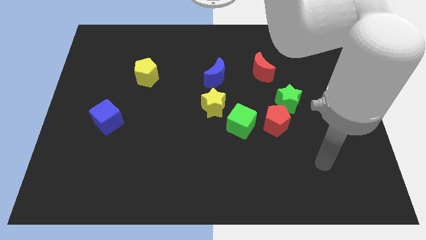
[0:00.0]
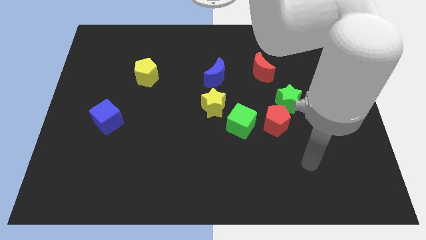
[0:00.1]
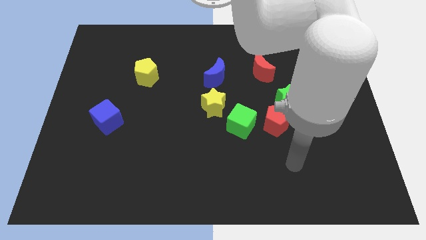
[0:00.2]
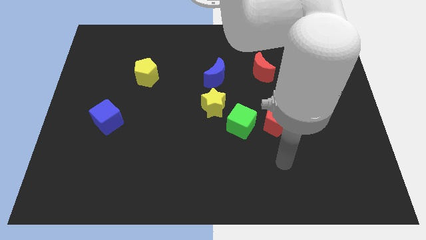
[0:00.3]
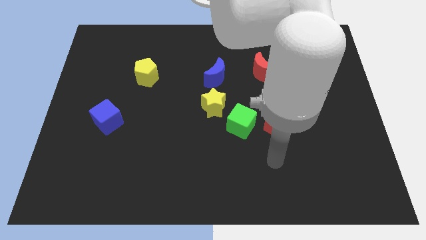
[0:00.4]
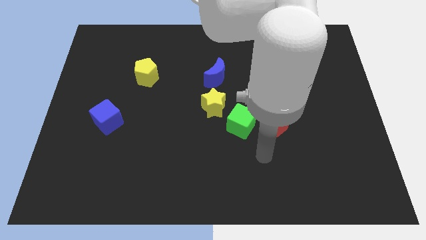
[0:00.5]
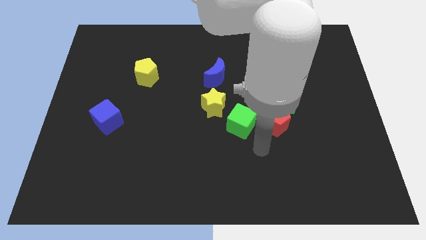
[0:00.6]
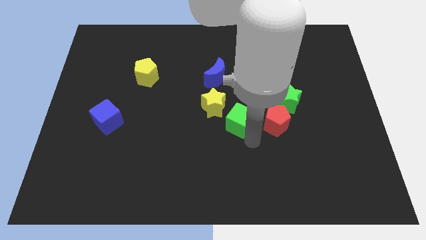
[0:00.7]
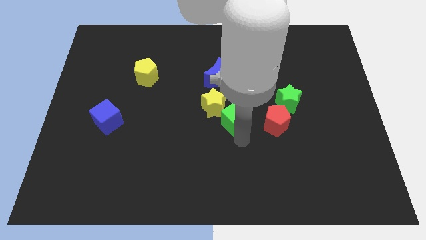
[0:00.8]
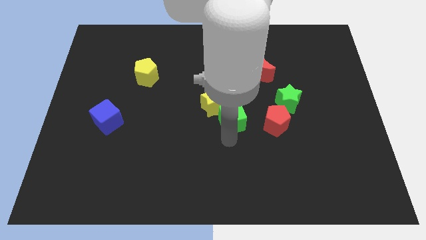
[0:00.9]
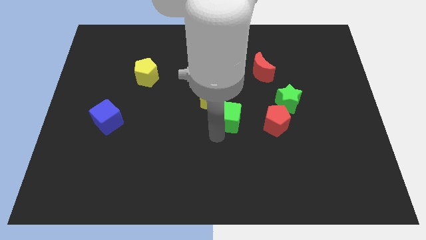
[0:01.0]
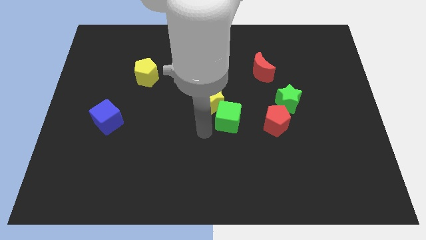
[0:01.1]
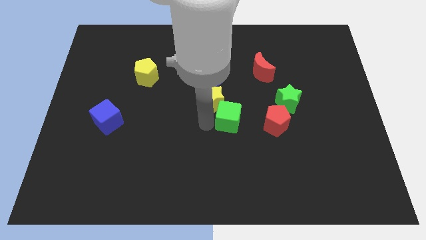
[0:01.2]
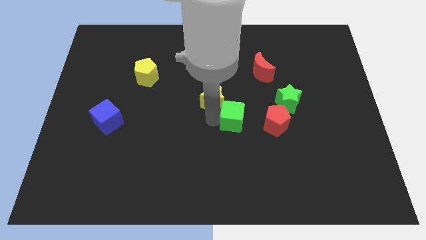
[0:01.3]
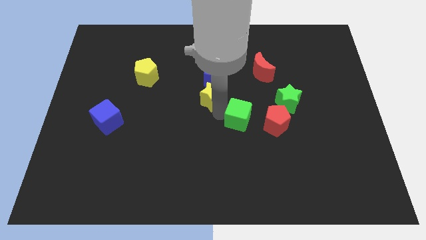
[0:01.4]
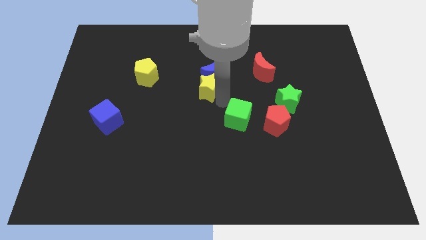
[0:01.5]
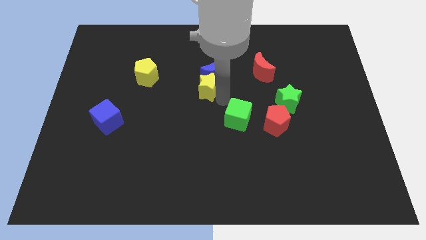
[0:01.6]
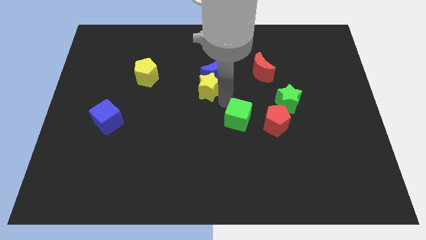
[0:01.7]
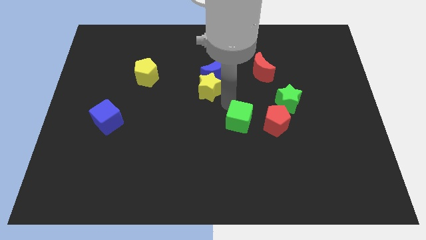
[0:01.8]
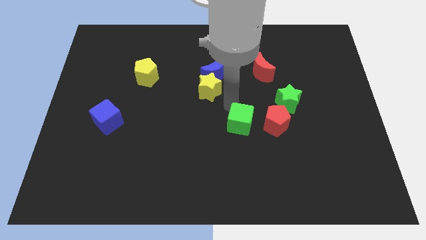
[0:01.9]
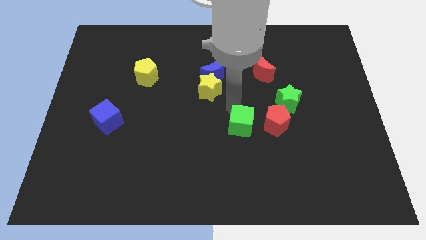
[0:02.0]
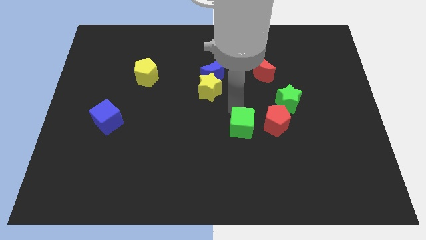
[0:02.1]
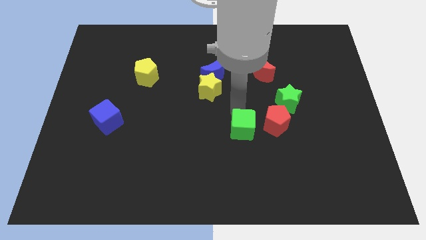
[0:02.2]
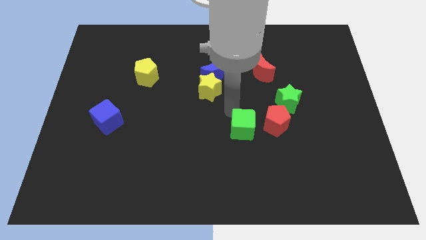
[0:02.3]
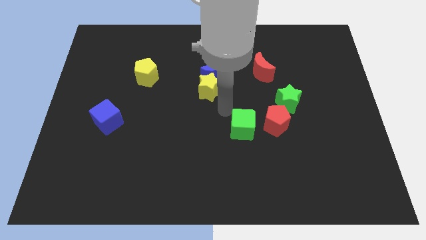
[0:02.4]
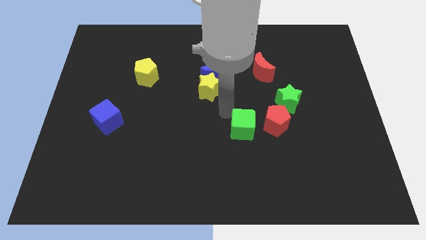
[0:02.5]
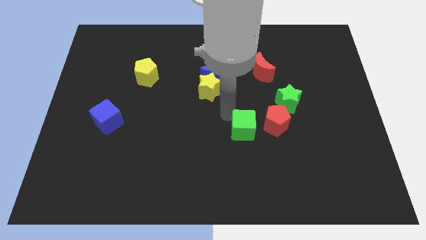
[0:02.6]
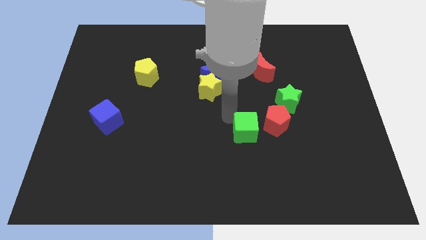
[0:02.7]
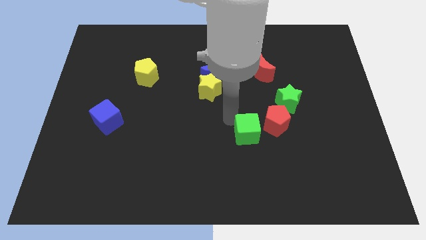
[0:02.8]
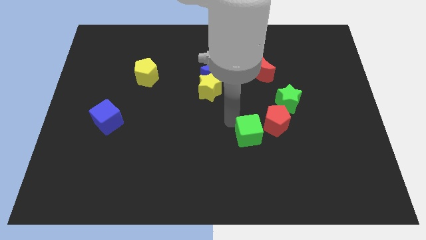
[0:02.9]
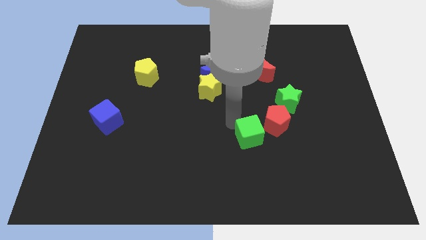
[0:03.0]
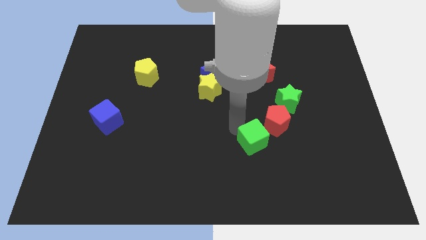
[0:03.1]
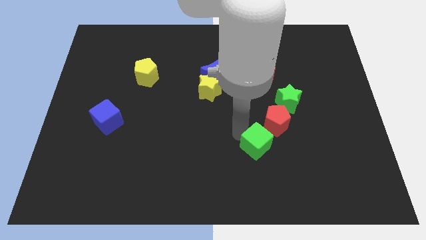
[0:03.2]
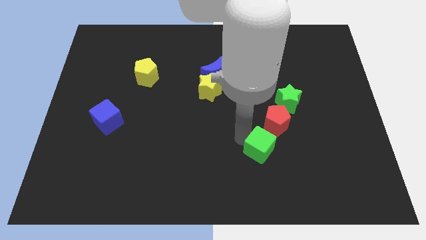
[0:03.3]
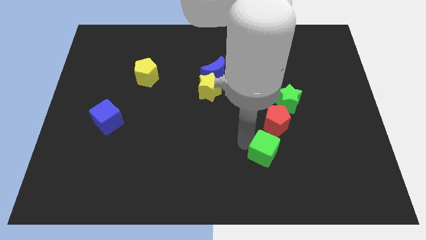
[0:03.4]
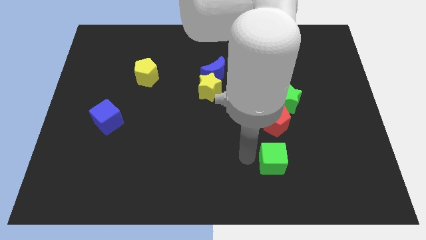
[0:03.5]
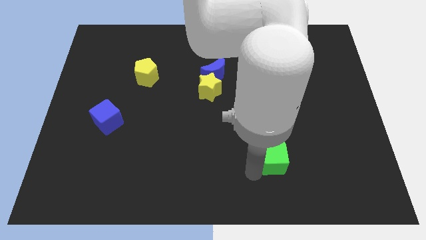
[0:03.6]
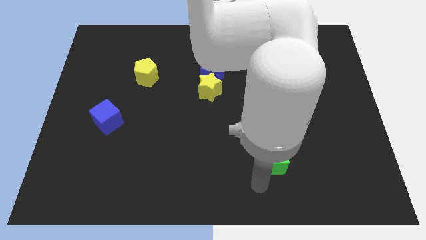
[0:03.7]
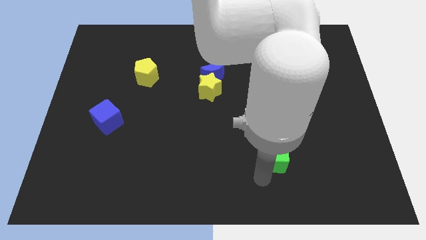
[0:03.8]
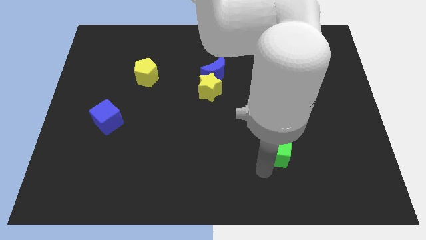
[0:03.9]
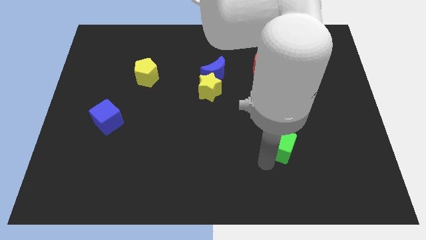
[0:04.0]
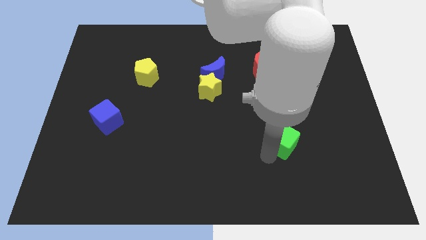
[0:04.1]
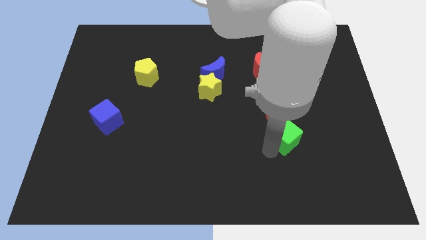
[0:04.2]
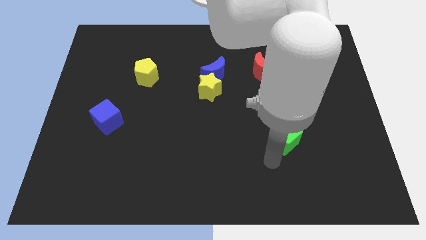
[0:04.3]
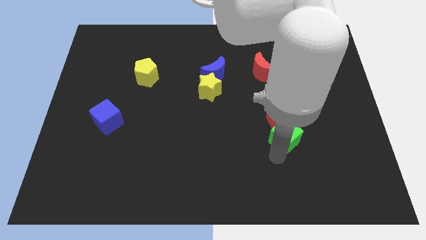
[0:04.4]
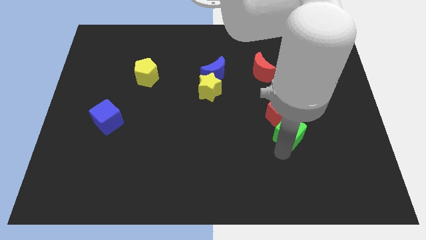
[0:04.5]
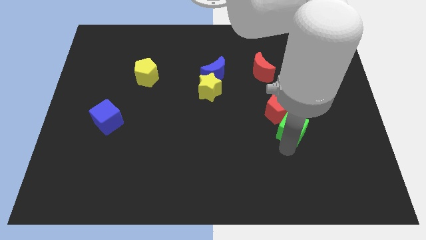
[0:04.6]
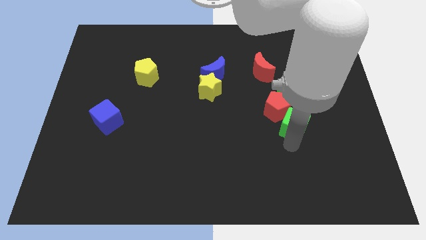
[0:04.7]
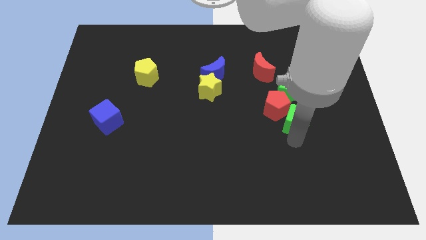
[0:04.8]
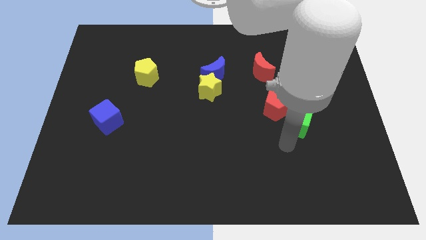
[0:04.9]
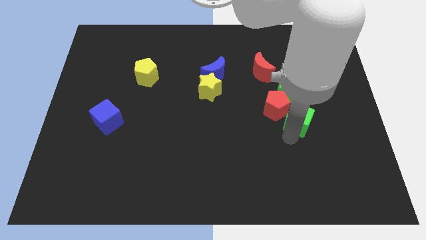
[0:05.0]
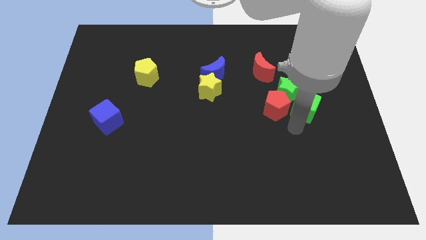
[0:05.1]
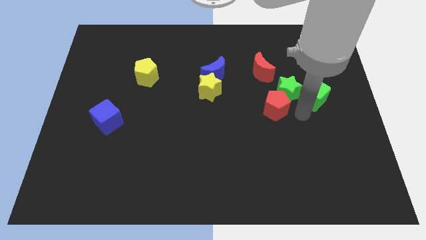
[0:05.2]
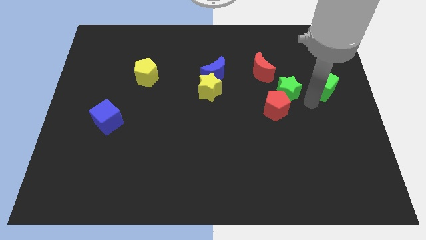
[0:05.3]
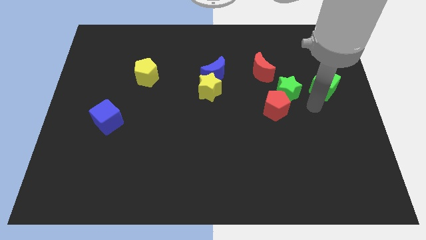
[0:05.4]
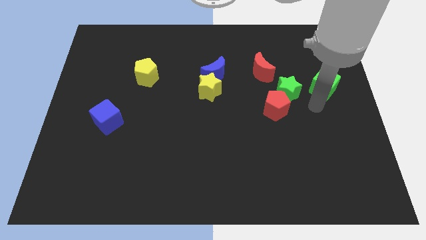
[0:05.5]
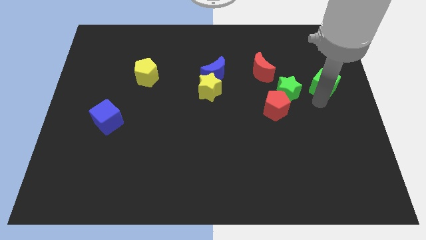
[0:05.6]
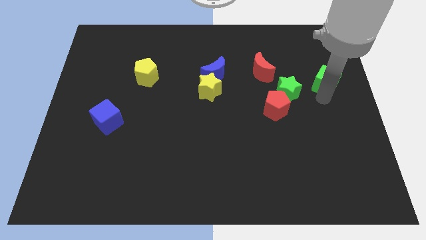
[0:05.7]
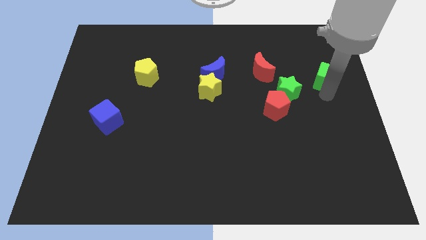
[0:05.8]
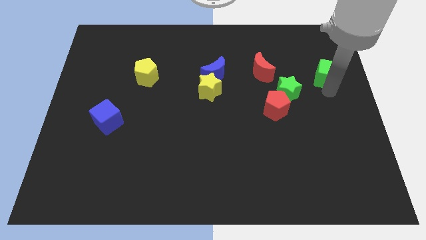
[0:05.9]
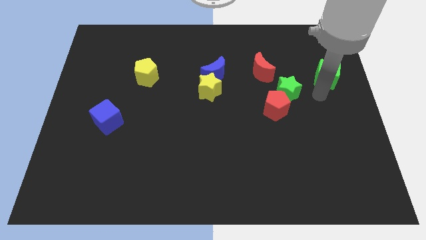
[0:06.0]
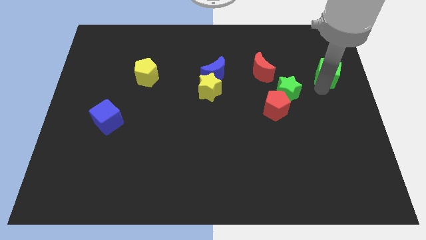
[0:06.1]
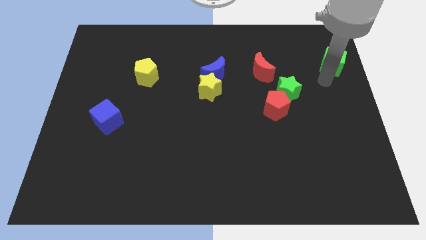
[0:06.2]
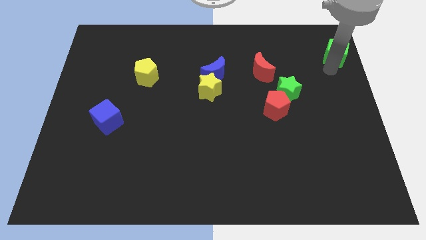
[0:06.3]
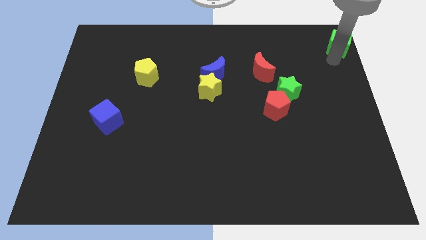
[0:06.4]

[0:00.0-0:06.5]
put the green cube to the upper right corner
